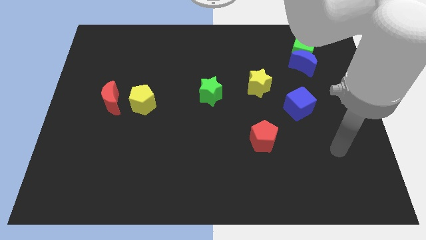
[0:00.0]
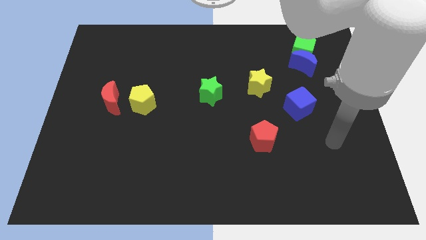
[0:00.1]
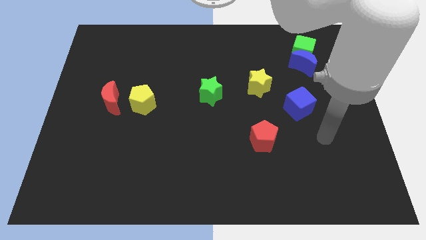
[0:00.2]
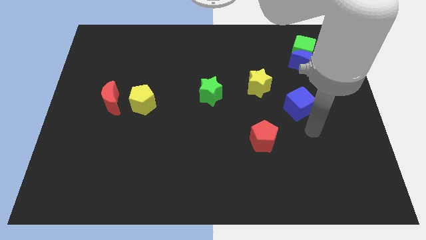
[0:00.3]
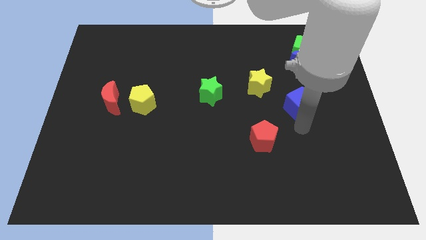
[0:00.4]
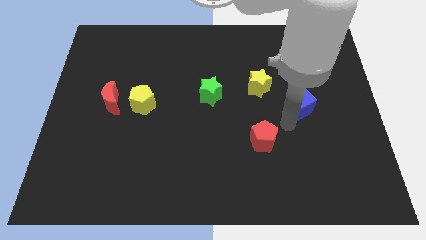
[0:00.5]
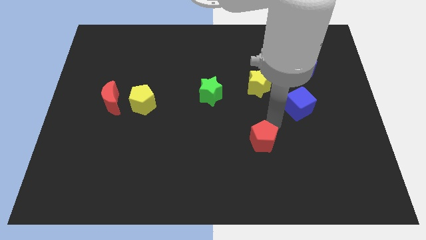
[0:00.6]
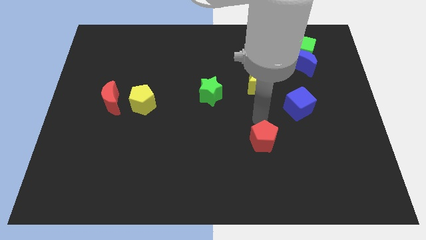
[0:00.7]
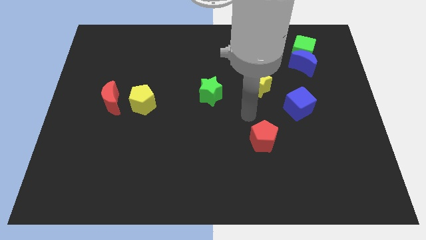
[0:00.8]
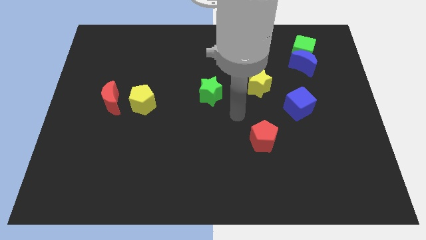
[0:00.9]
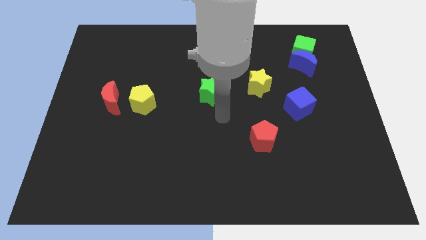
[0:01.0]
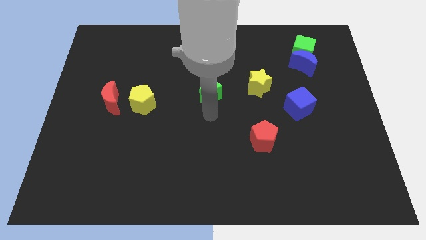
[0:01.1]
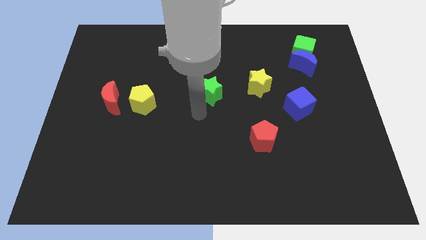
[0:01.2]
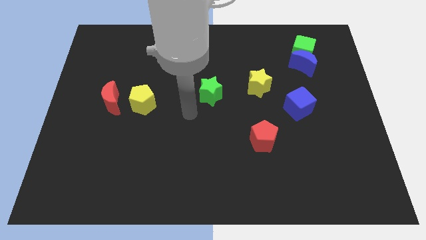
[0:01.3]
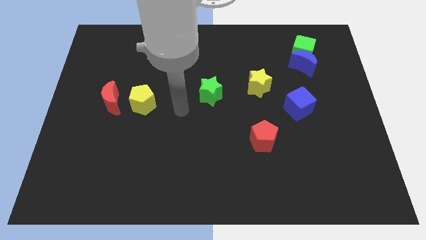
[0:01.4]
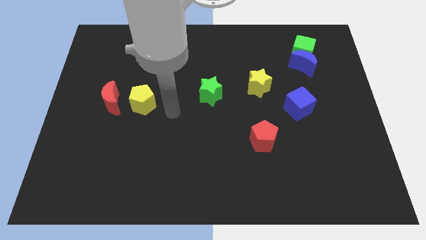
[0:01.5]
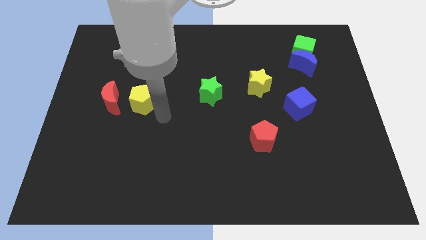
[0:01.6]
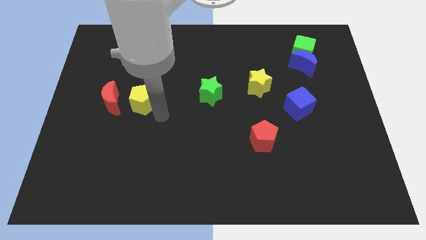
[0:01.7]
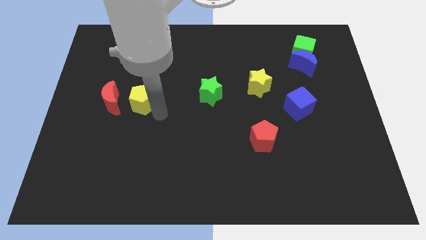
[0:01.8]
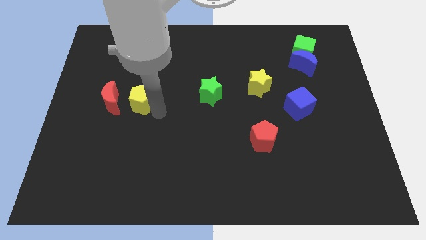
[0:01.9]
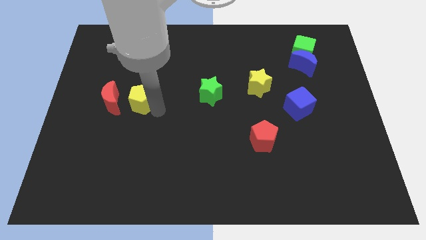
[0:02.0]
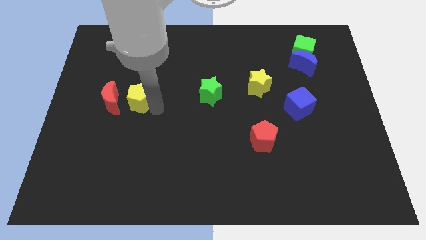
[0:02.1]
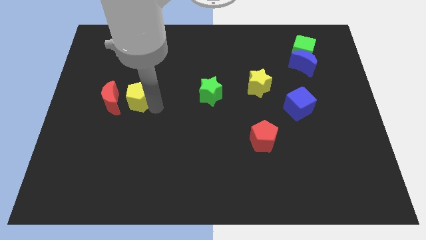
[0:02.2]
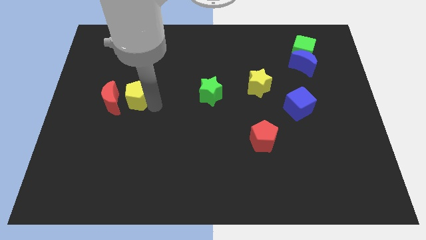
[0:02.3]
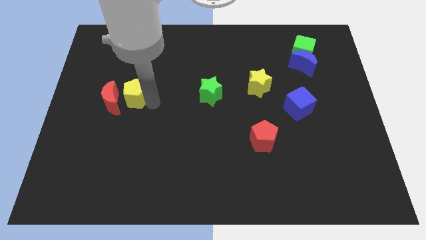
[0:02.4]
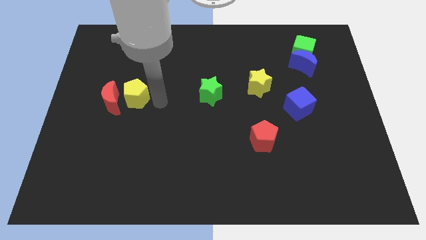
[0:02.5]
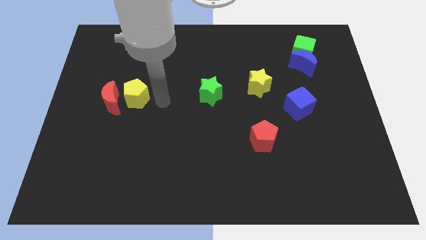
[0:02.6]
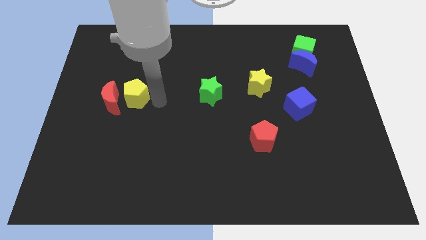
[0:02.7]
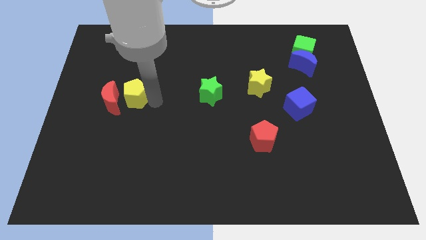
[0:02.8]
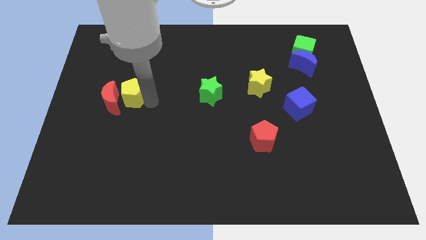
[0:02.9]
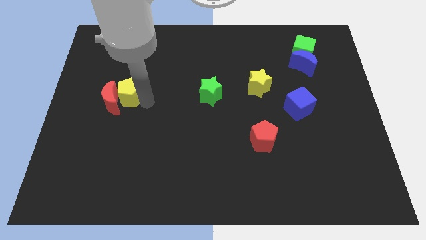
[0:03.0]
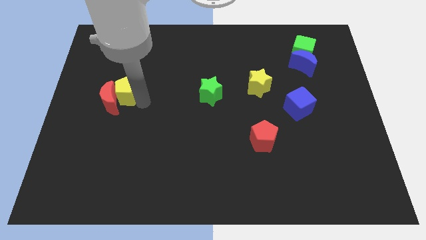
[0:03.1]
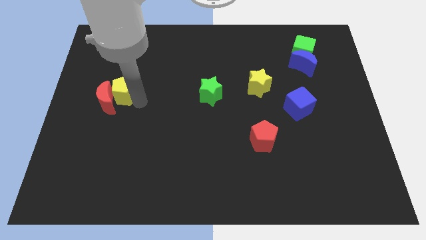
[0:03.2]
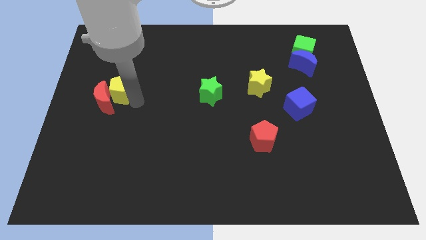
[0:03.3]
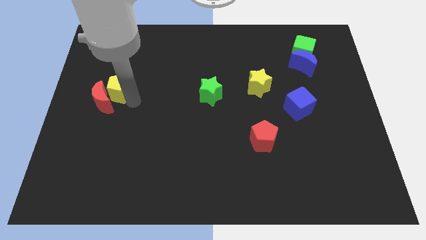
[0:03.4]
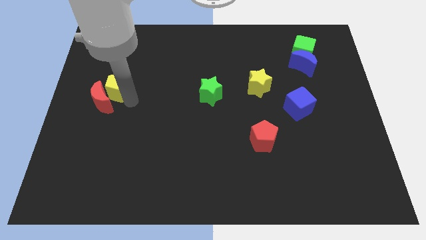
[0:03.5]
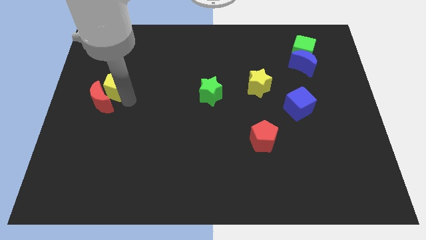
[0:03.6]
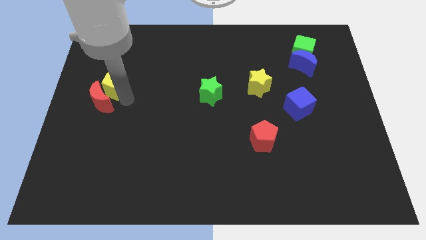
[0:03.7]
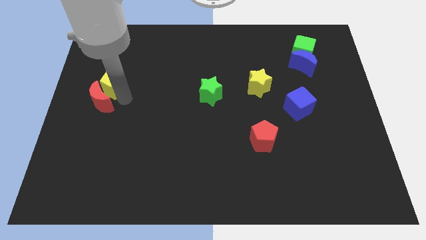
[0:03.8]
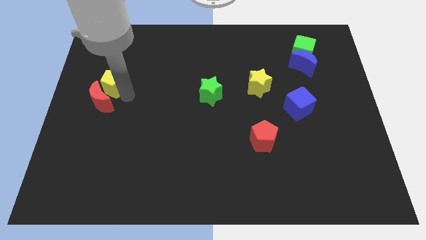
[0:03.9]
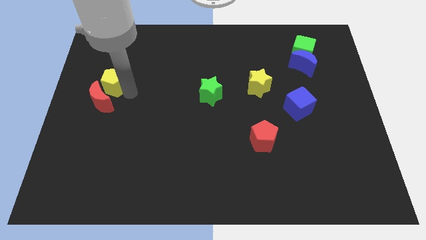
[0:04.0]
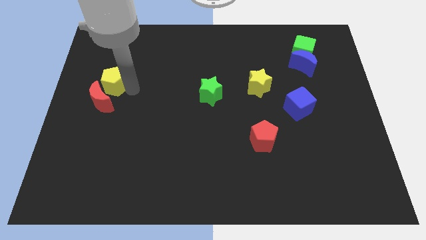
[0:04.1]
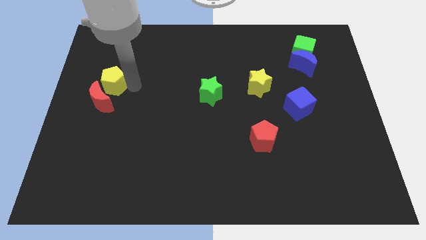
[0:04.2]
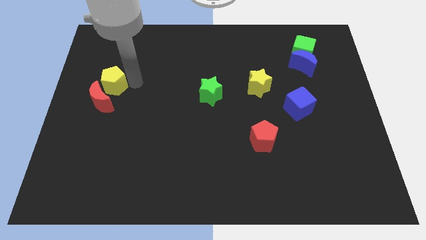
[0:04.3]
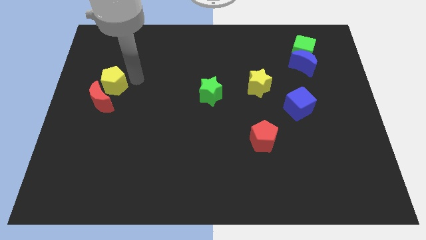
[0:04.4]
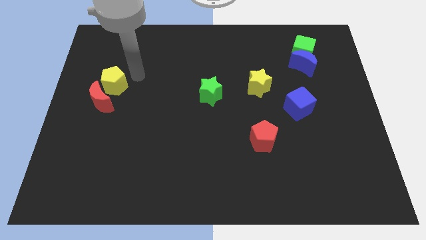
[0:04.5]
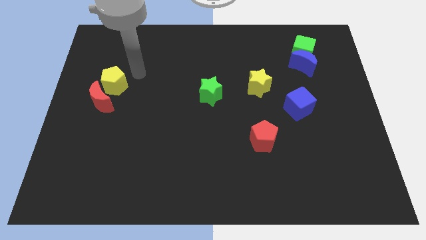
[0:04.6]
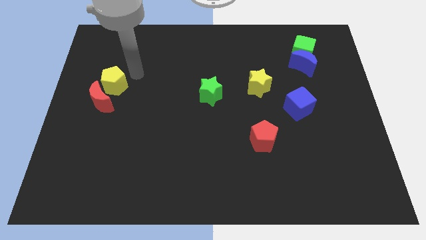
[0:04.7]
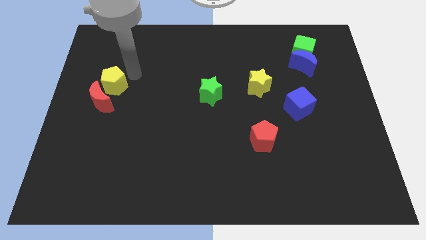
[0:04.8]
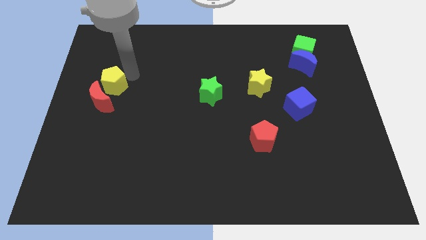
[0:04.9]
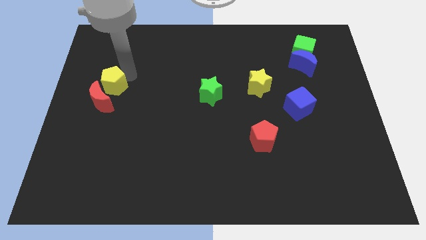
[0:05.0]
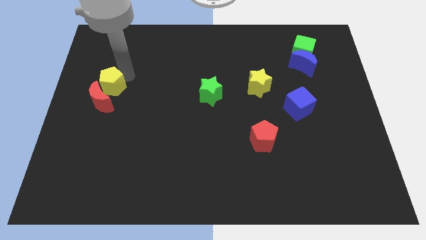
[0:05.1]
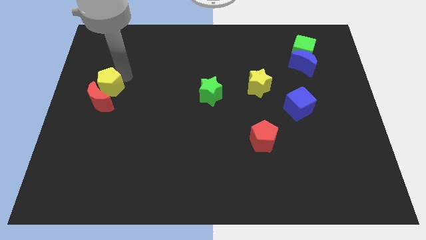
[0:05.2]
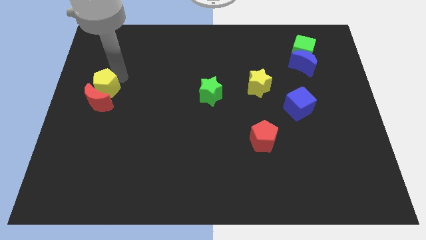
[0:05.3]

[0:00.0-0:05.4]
put the yellow pentagon to the left side of the board

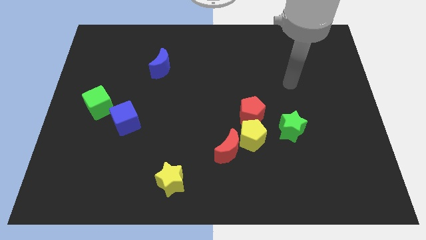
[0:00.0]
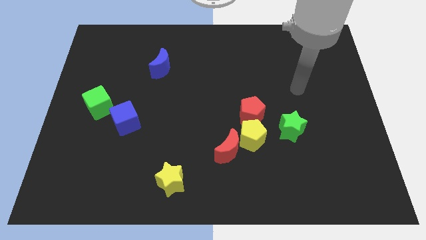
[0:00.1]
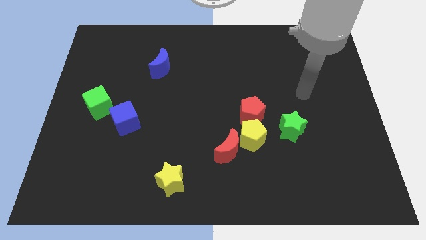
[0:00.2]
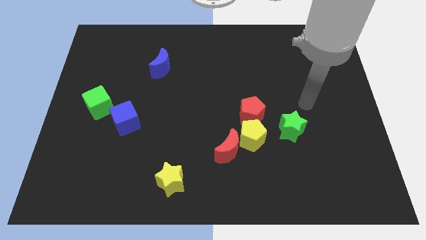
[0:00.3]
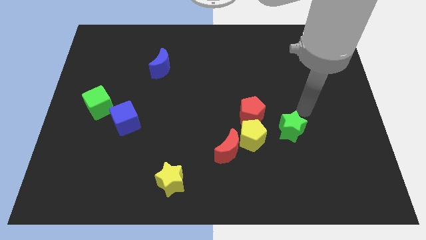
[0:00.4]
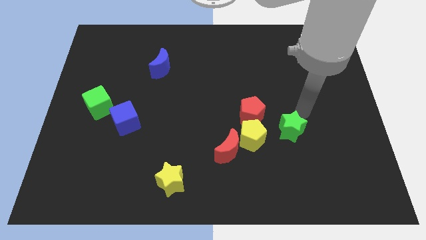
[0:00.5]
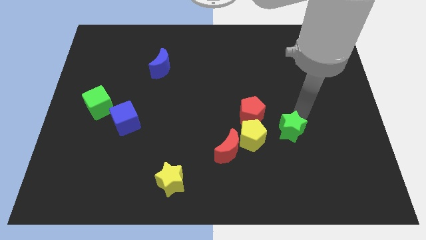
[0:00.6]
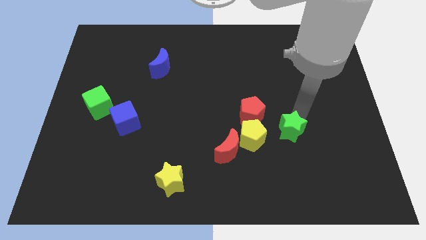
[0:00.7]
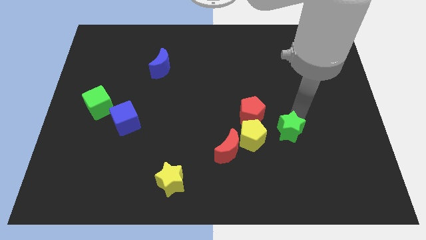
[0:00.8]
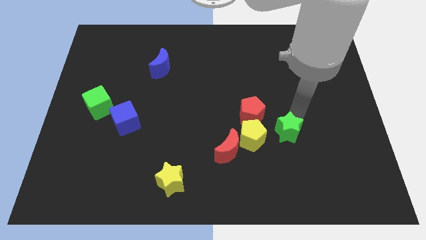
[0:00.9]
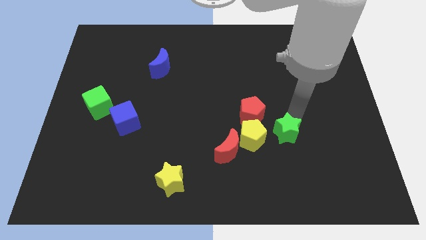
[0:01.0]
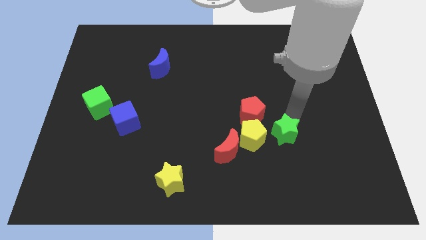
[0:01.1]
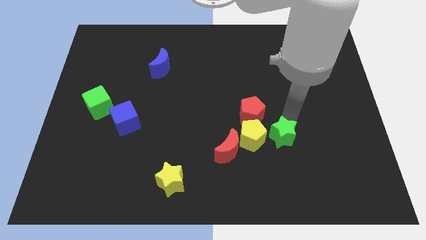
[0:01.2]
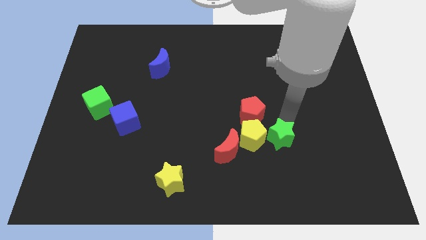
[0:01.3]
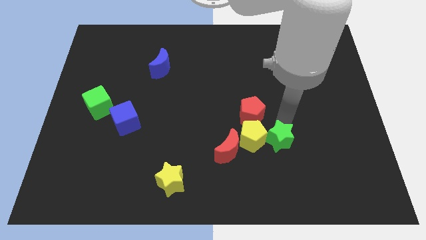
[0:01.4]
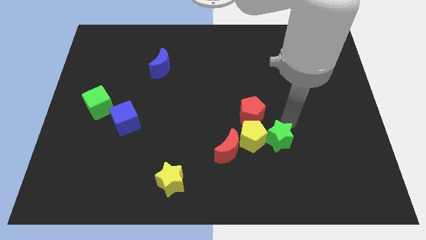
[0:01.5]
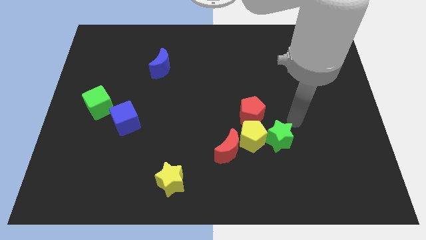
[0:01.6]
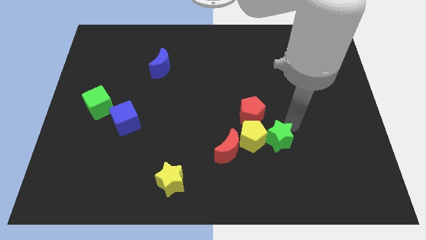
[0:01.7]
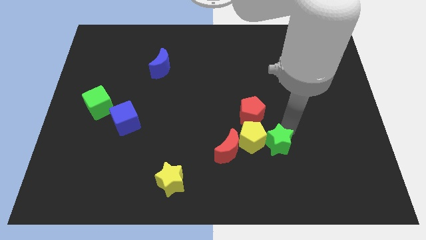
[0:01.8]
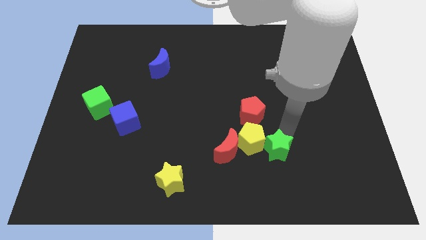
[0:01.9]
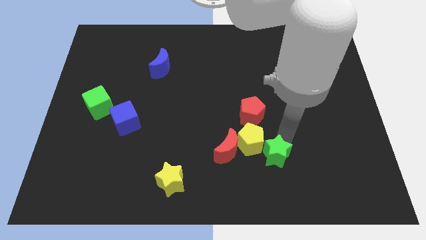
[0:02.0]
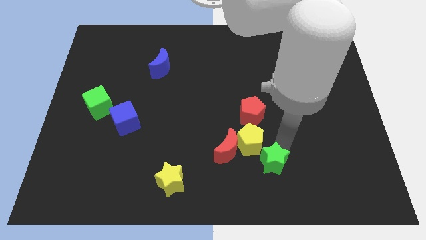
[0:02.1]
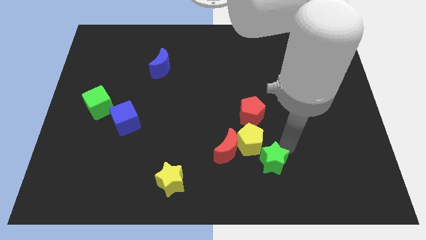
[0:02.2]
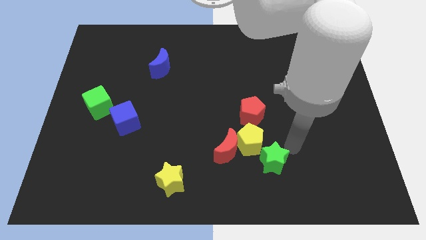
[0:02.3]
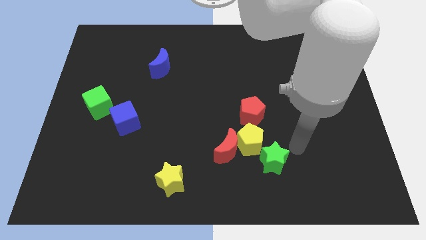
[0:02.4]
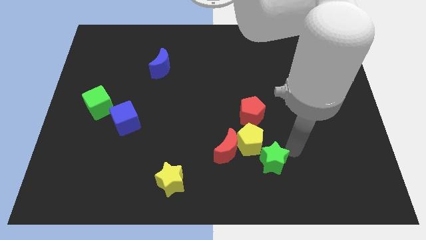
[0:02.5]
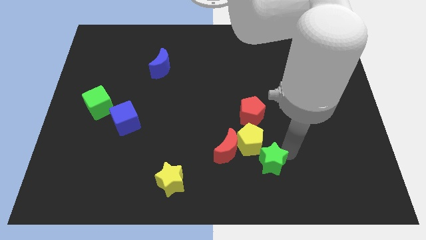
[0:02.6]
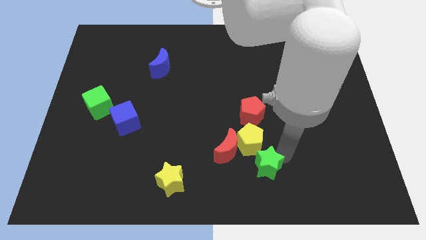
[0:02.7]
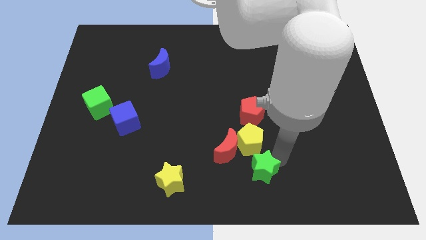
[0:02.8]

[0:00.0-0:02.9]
put the green star to the bottom
